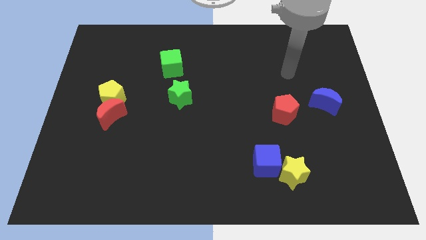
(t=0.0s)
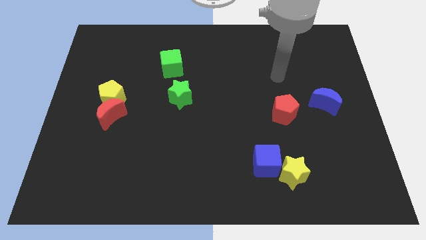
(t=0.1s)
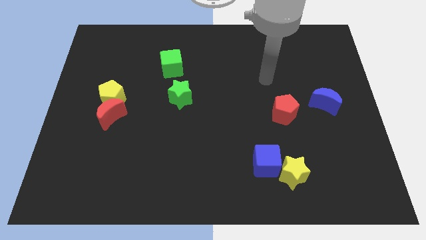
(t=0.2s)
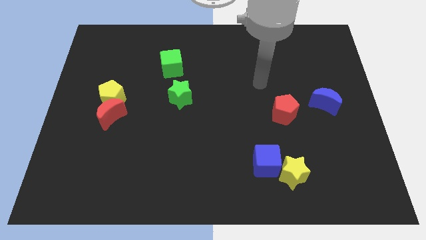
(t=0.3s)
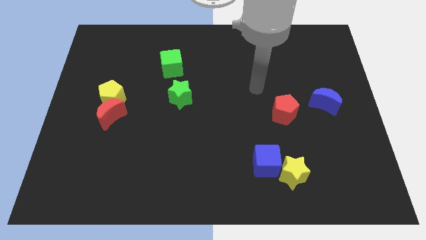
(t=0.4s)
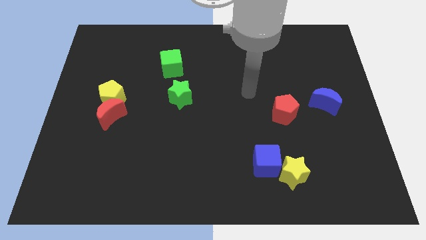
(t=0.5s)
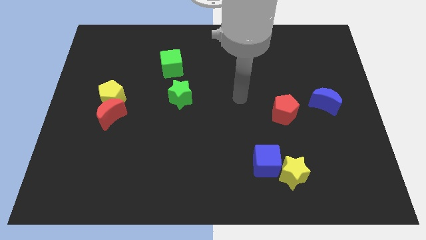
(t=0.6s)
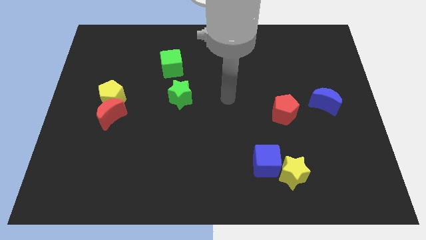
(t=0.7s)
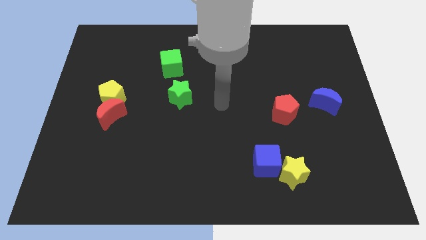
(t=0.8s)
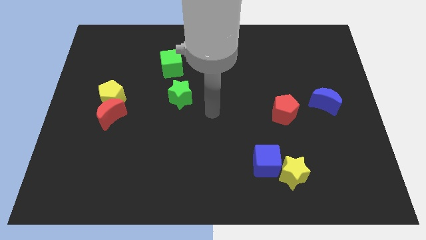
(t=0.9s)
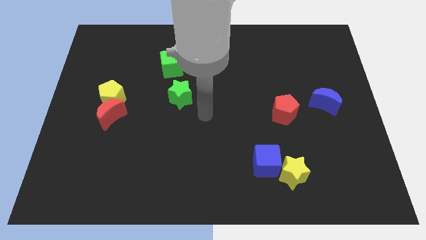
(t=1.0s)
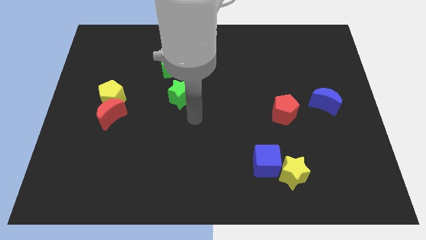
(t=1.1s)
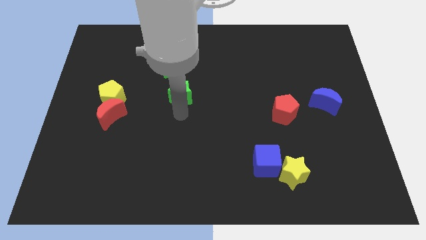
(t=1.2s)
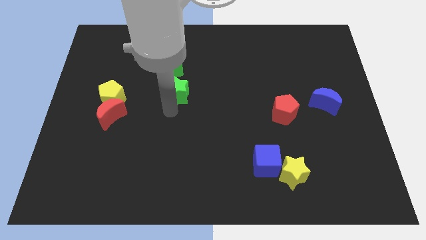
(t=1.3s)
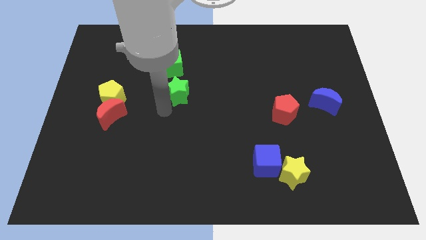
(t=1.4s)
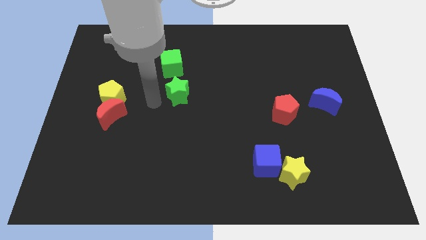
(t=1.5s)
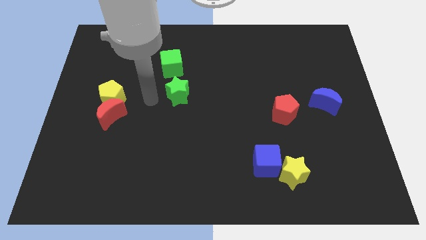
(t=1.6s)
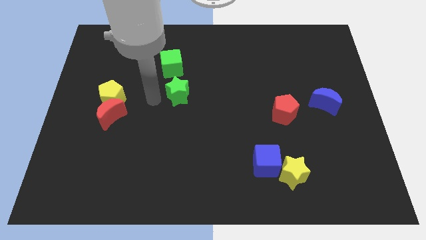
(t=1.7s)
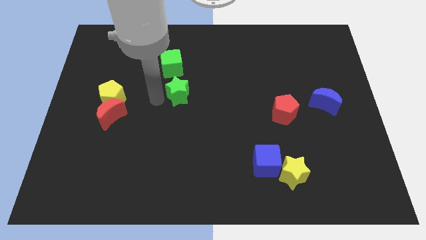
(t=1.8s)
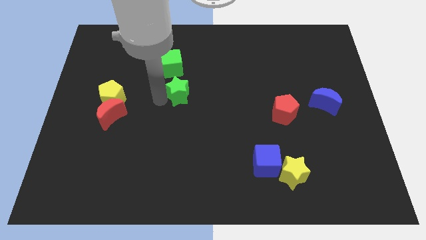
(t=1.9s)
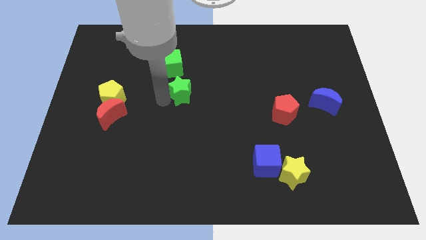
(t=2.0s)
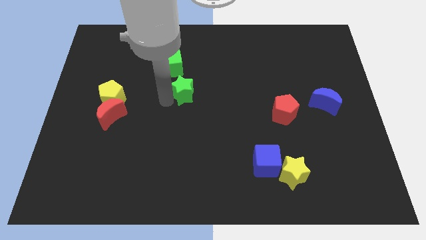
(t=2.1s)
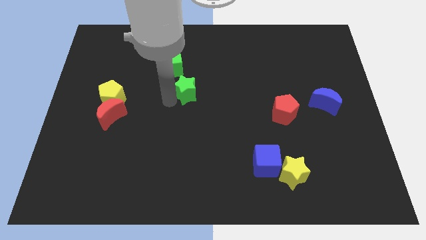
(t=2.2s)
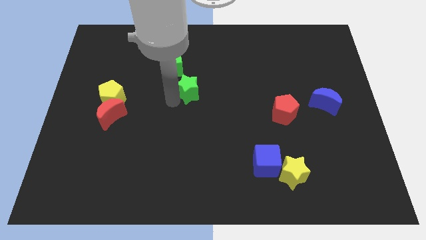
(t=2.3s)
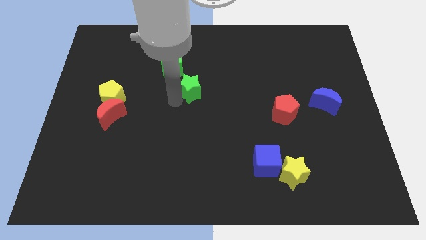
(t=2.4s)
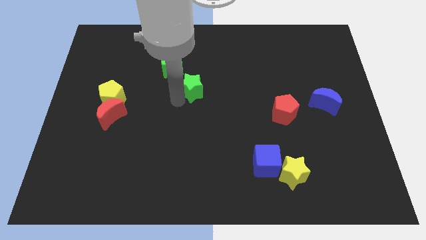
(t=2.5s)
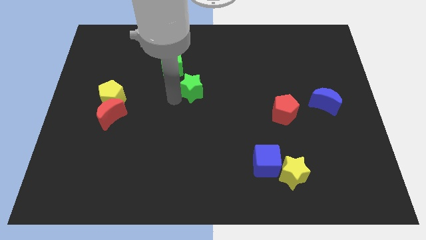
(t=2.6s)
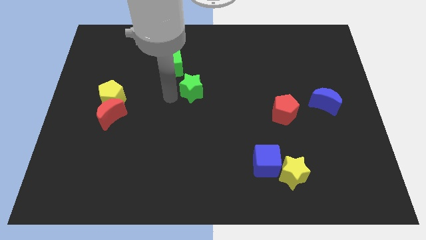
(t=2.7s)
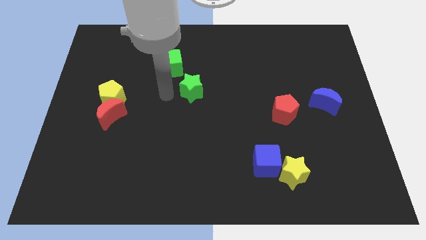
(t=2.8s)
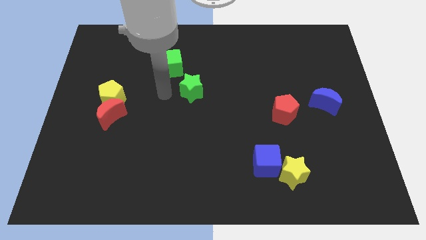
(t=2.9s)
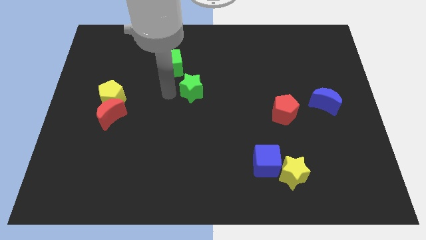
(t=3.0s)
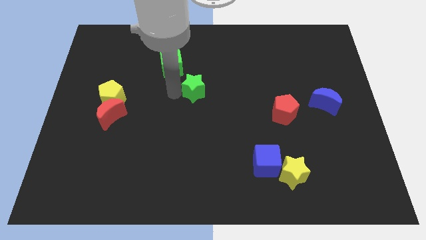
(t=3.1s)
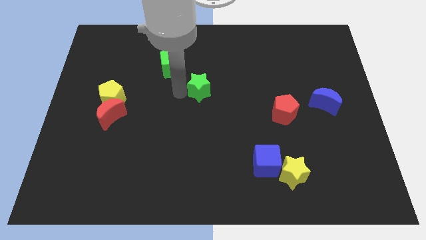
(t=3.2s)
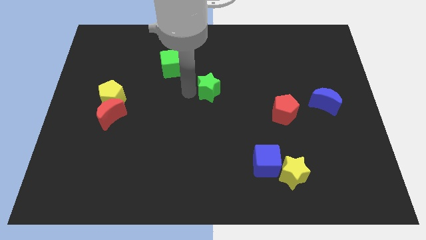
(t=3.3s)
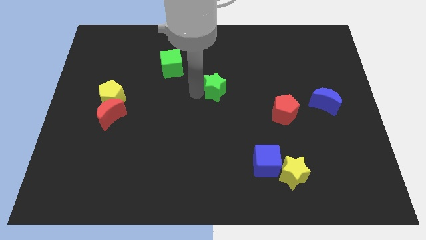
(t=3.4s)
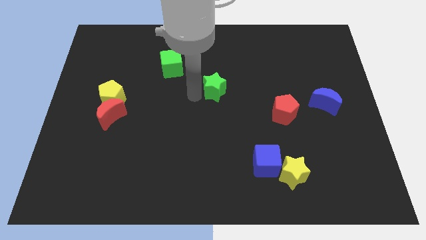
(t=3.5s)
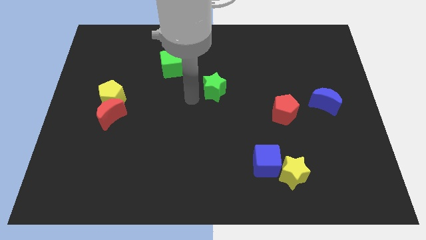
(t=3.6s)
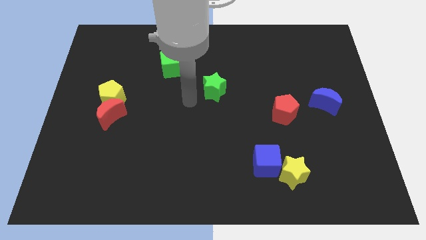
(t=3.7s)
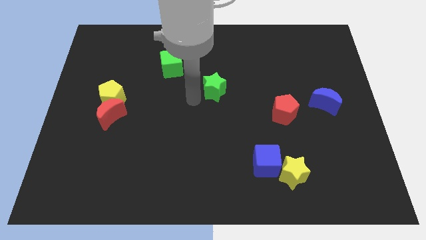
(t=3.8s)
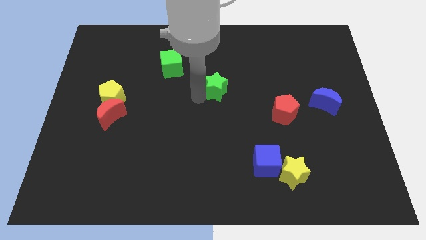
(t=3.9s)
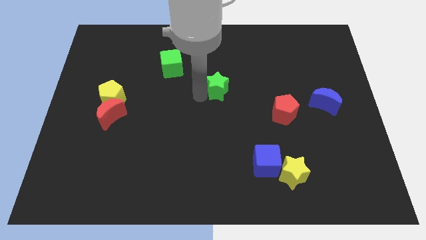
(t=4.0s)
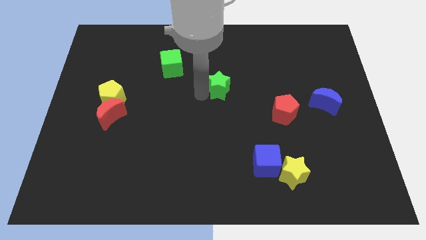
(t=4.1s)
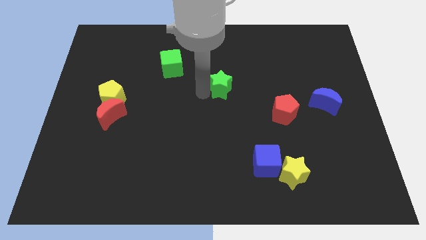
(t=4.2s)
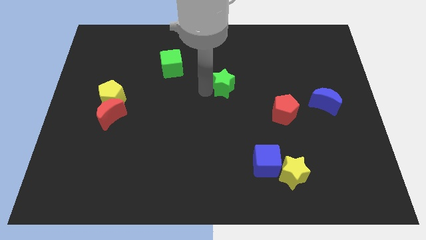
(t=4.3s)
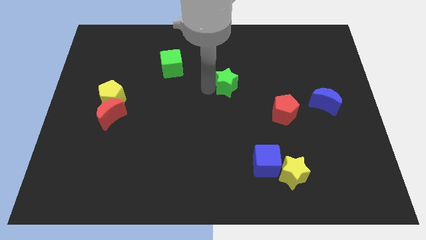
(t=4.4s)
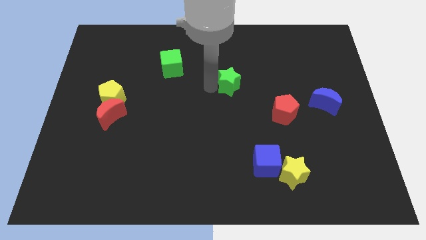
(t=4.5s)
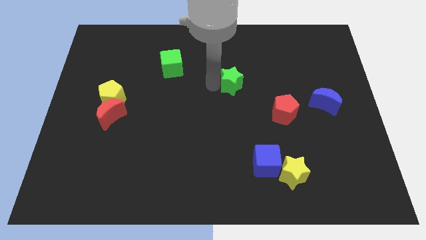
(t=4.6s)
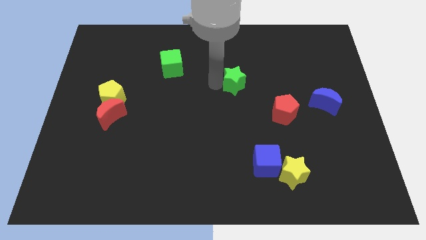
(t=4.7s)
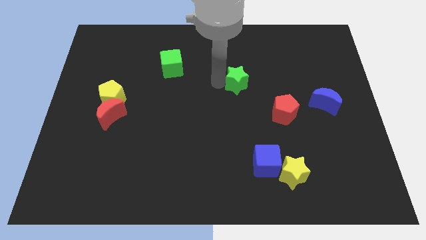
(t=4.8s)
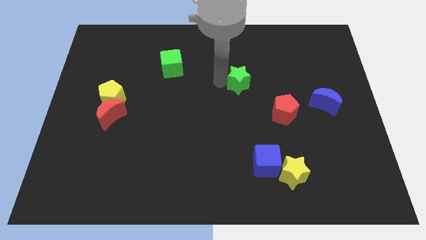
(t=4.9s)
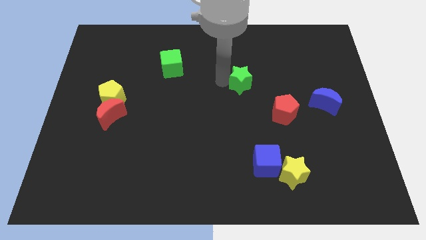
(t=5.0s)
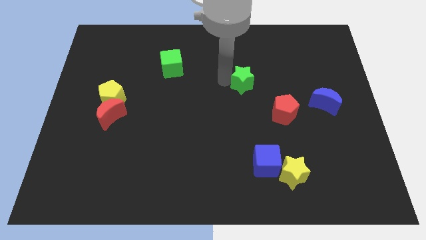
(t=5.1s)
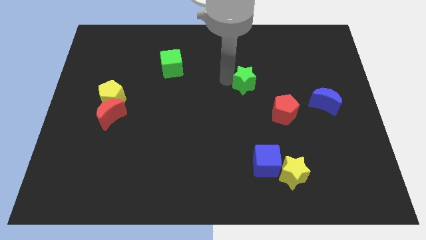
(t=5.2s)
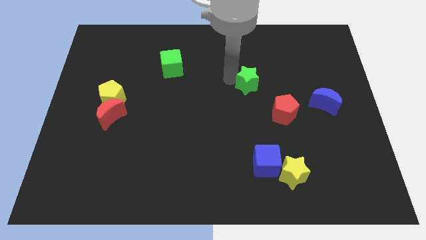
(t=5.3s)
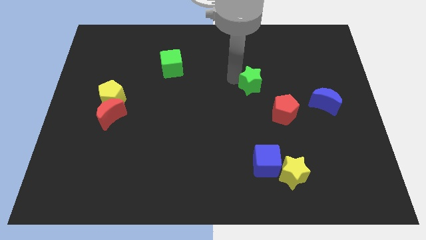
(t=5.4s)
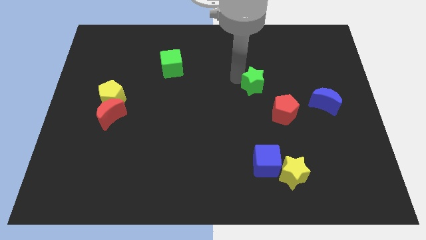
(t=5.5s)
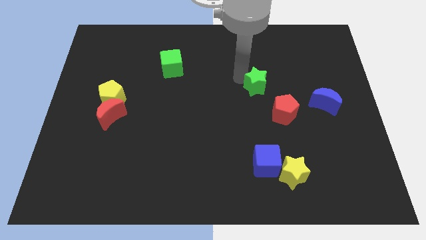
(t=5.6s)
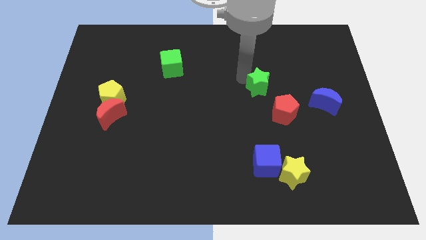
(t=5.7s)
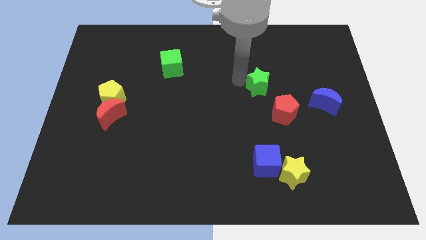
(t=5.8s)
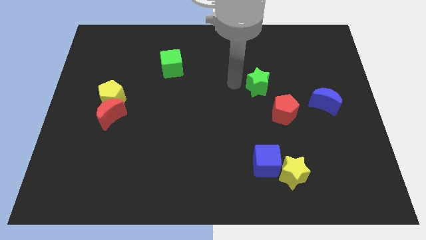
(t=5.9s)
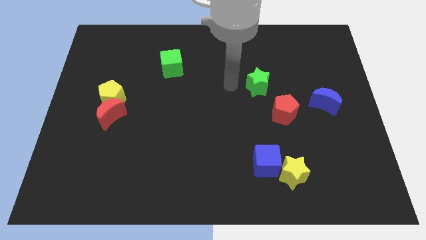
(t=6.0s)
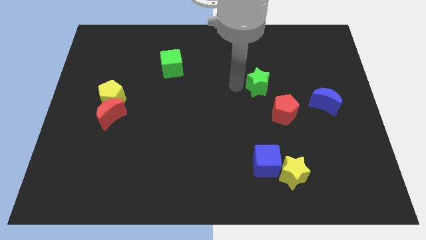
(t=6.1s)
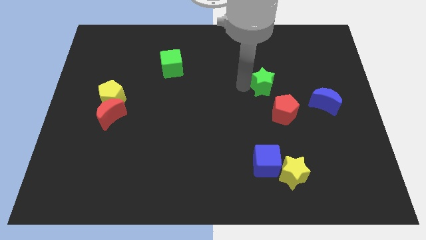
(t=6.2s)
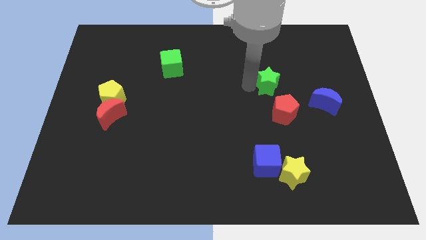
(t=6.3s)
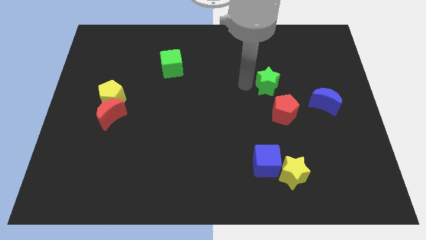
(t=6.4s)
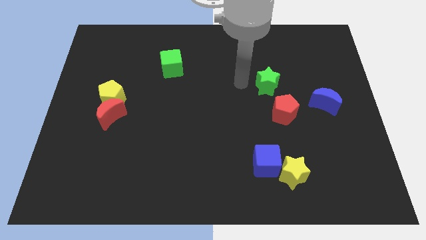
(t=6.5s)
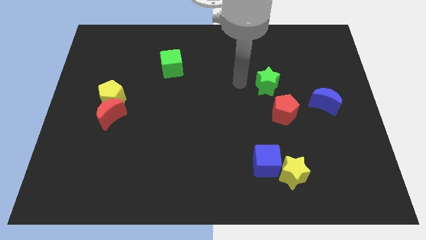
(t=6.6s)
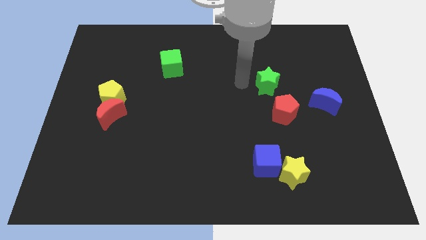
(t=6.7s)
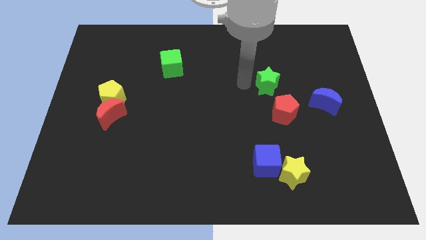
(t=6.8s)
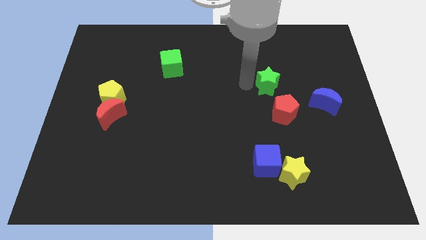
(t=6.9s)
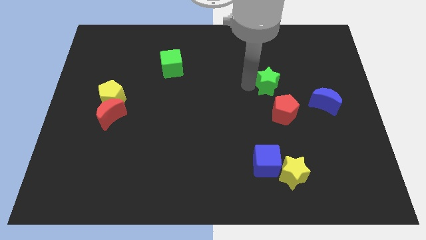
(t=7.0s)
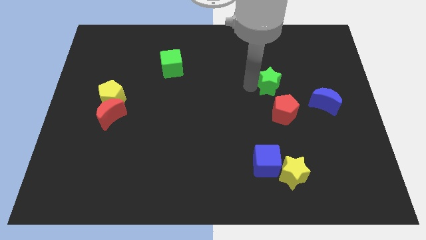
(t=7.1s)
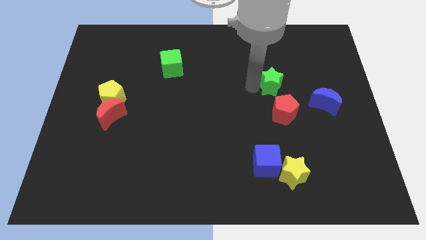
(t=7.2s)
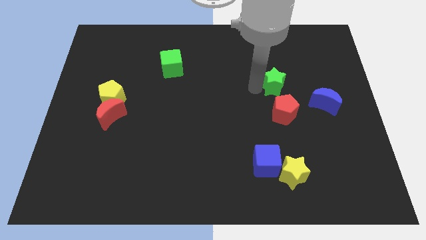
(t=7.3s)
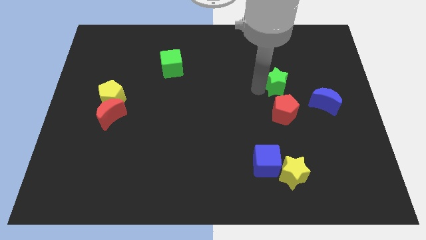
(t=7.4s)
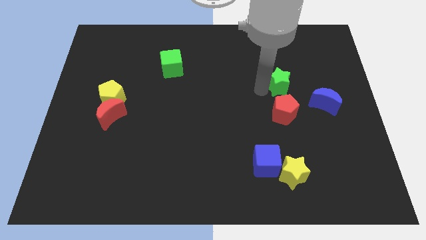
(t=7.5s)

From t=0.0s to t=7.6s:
put the green star diagonally up and to the left of the blue moon

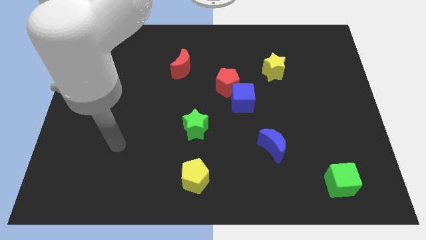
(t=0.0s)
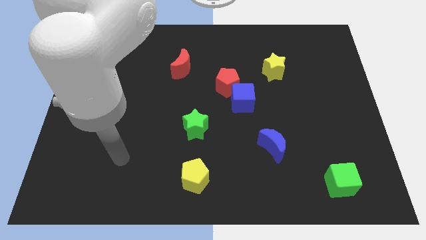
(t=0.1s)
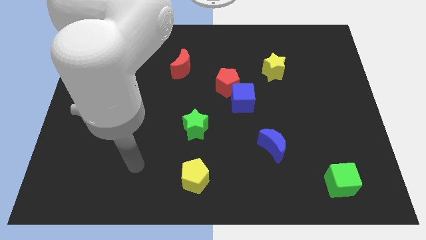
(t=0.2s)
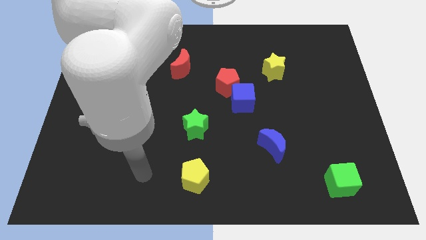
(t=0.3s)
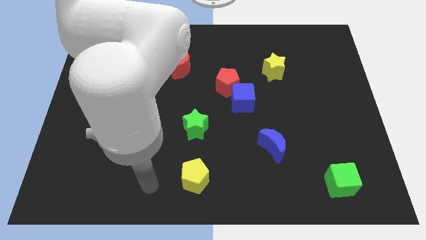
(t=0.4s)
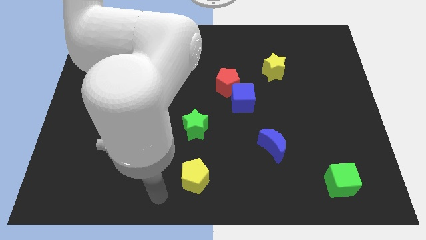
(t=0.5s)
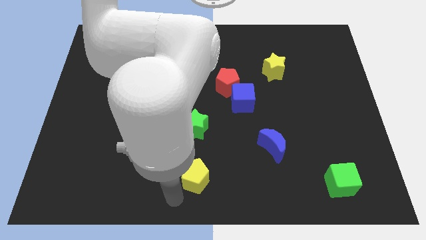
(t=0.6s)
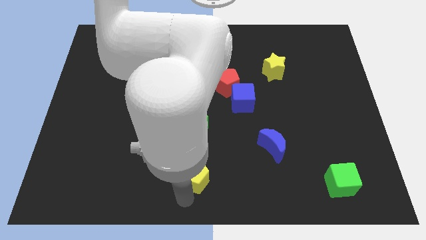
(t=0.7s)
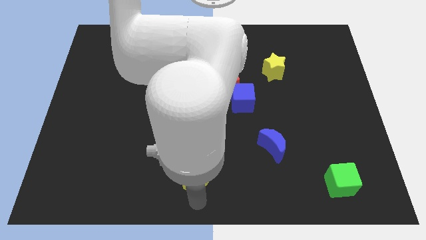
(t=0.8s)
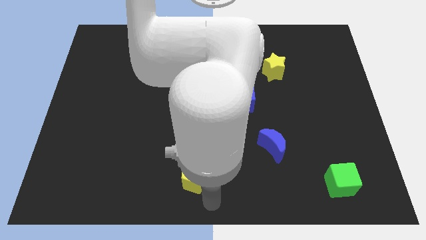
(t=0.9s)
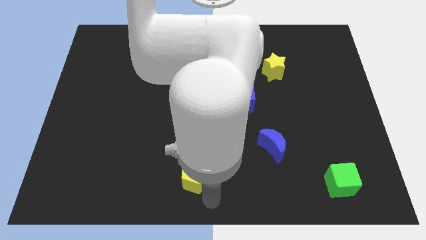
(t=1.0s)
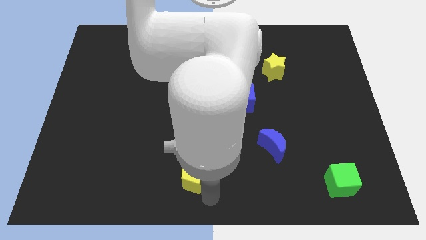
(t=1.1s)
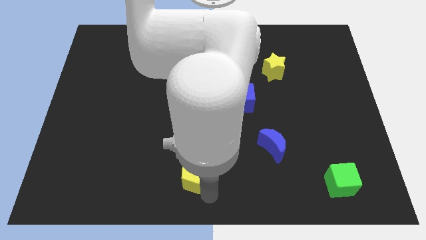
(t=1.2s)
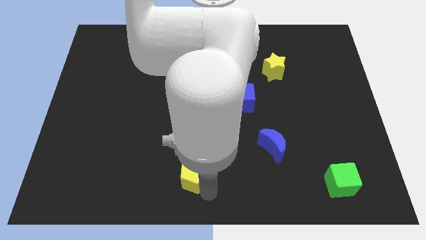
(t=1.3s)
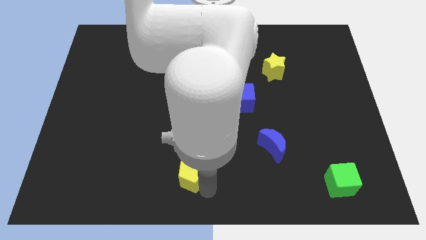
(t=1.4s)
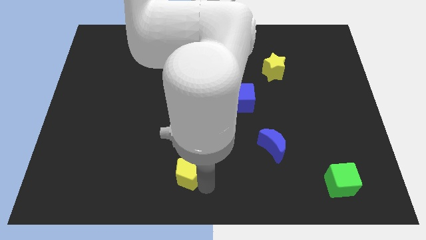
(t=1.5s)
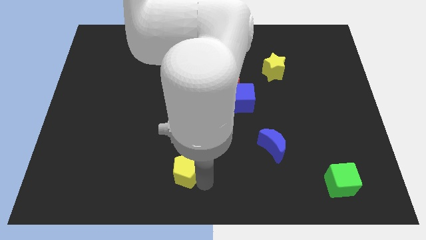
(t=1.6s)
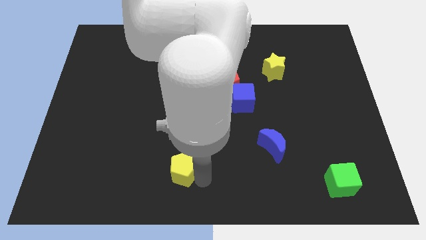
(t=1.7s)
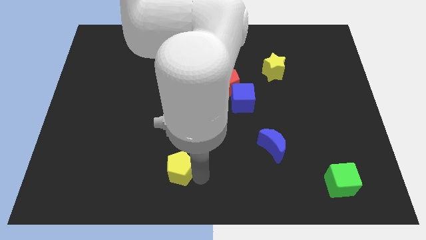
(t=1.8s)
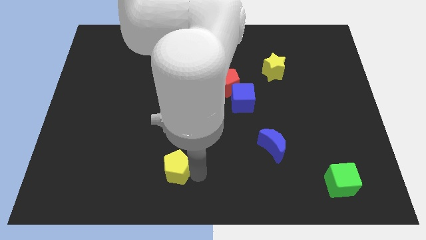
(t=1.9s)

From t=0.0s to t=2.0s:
put the yellow pentagon to the bottom left of the green star
